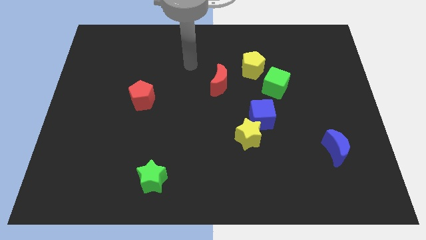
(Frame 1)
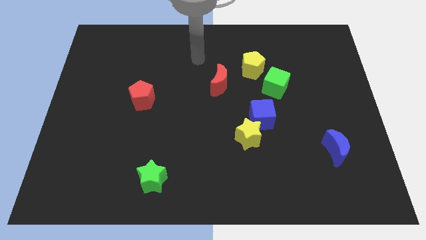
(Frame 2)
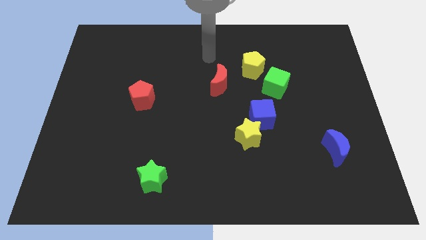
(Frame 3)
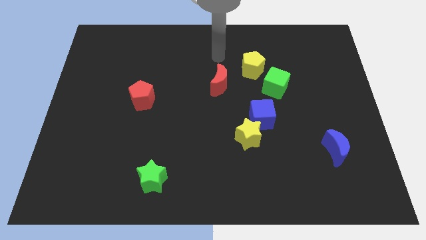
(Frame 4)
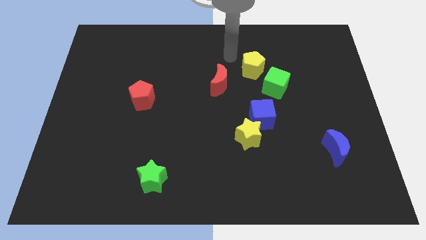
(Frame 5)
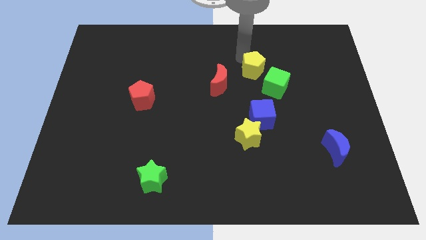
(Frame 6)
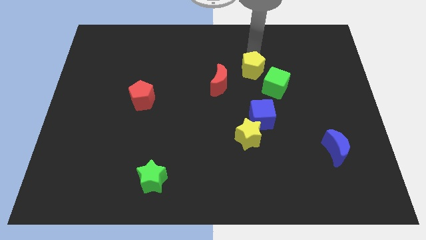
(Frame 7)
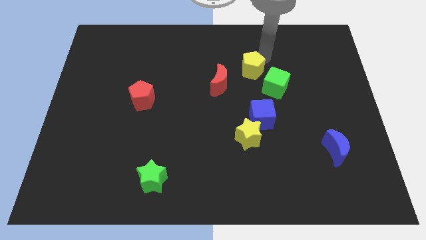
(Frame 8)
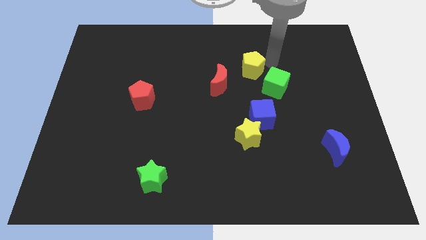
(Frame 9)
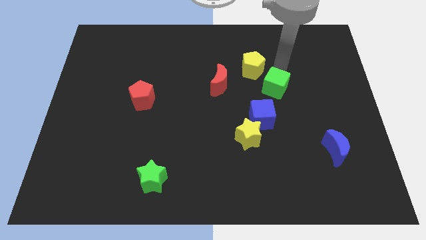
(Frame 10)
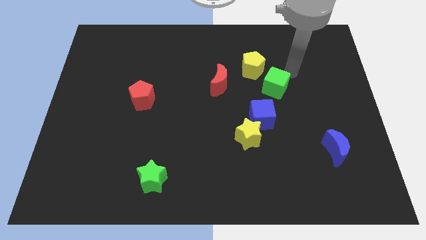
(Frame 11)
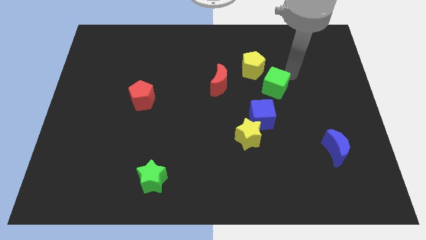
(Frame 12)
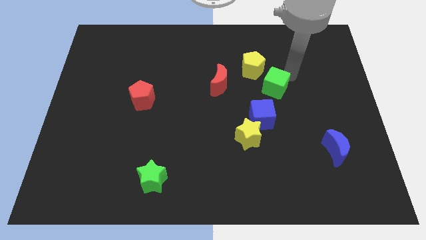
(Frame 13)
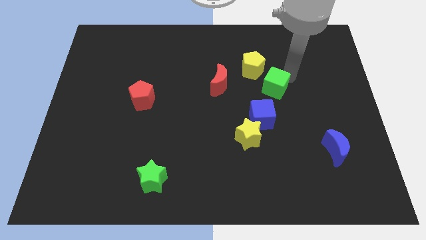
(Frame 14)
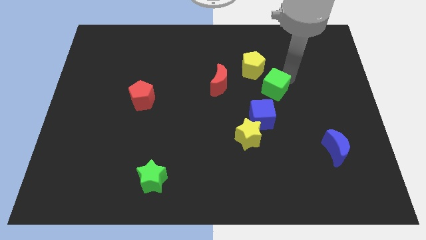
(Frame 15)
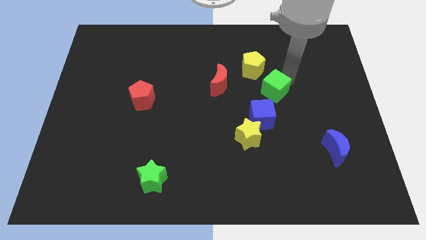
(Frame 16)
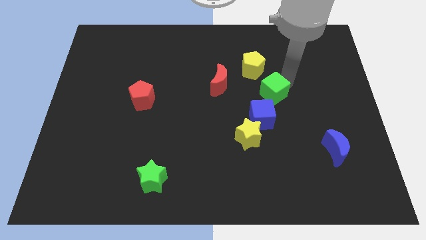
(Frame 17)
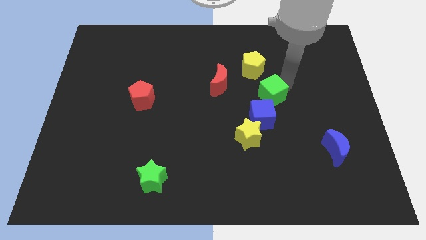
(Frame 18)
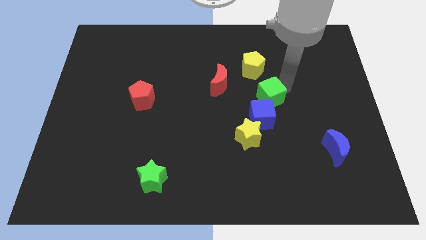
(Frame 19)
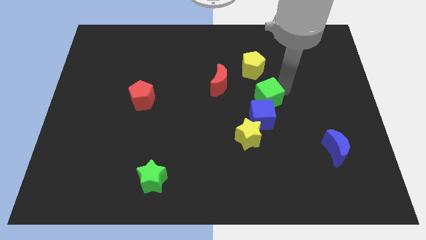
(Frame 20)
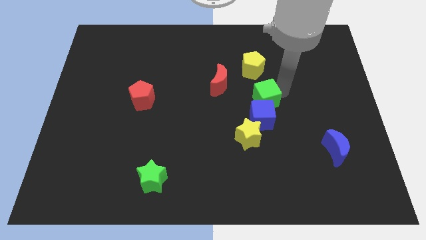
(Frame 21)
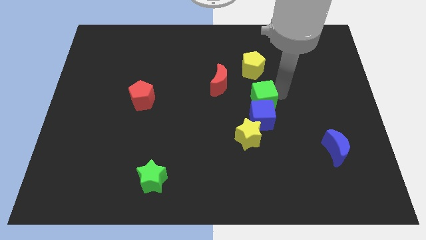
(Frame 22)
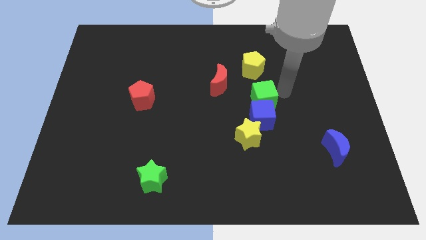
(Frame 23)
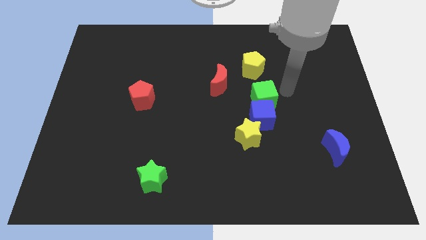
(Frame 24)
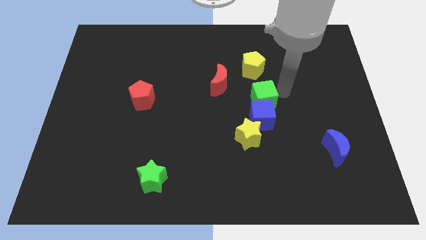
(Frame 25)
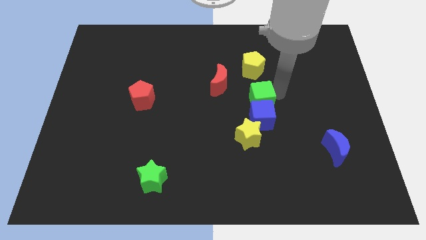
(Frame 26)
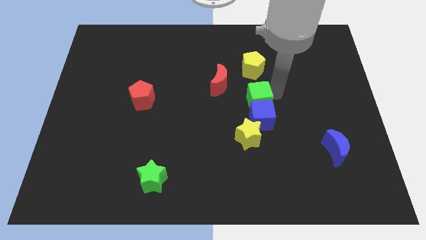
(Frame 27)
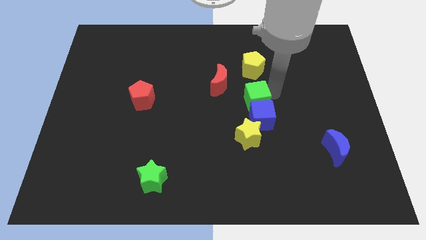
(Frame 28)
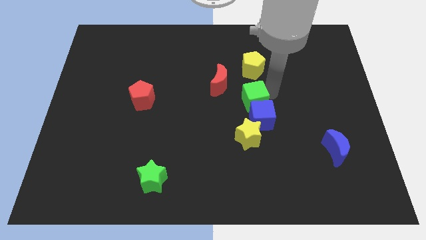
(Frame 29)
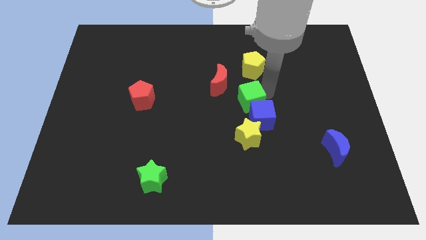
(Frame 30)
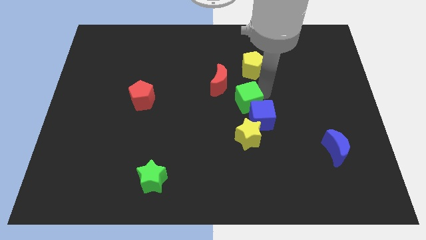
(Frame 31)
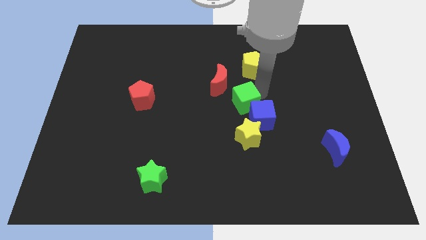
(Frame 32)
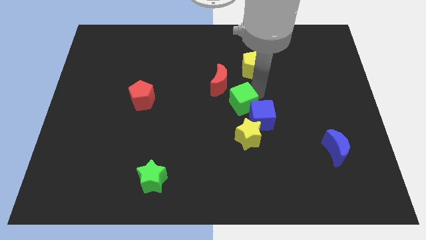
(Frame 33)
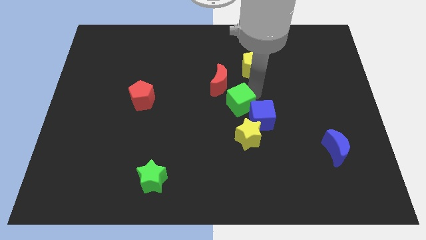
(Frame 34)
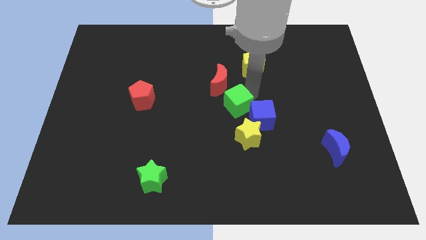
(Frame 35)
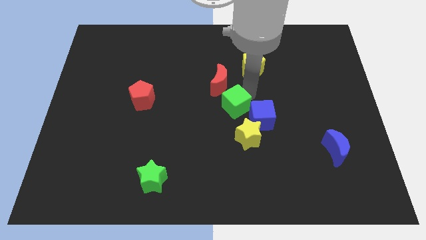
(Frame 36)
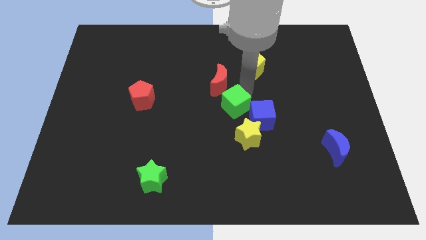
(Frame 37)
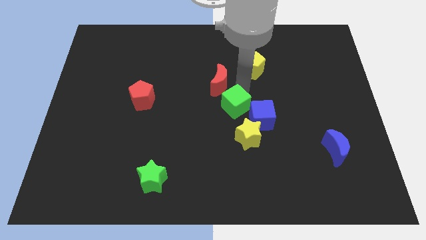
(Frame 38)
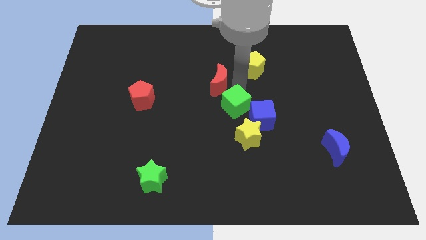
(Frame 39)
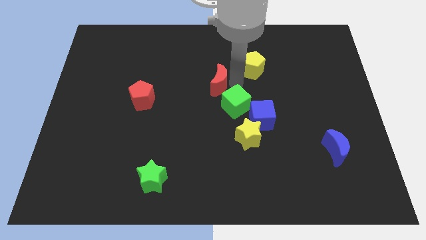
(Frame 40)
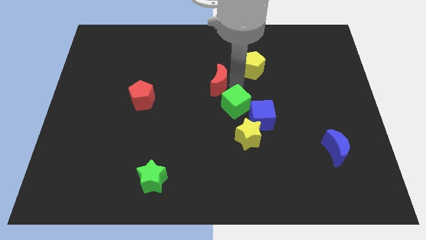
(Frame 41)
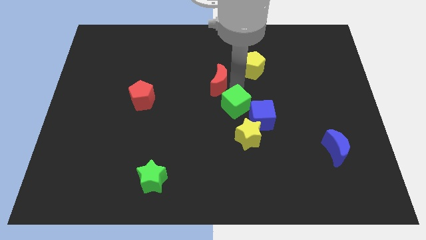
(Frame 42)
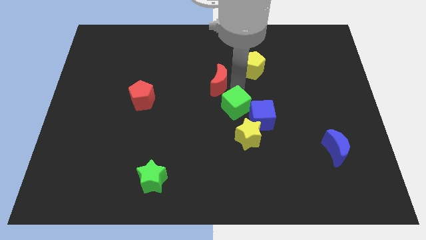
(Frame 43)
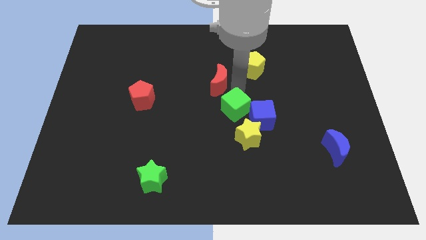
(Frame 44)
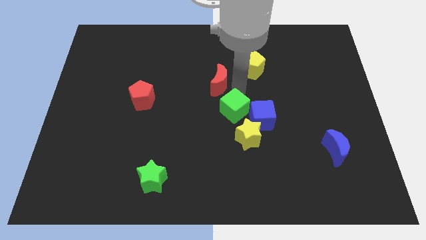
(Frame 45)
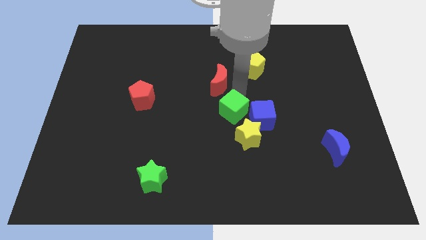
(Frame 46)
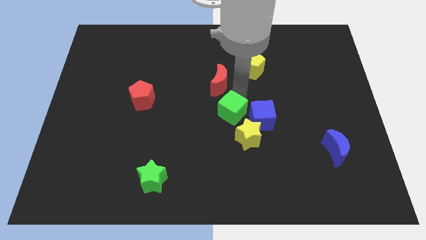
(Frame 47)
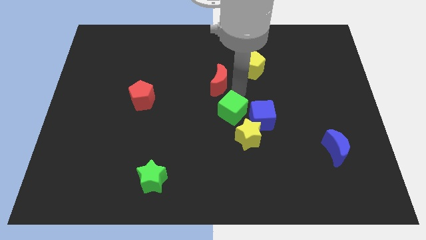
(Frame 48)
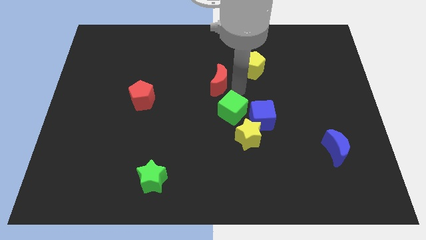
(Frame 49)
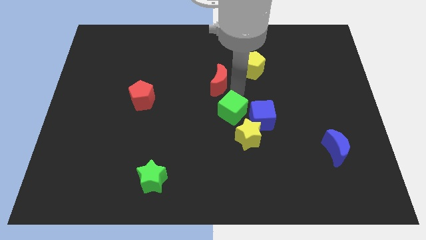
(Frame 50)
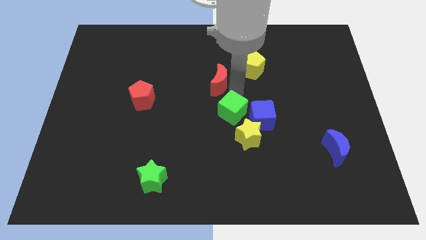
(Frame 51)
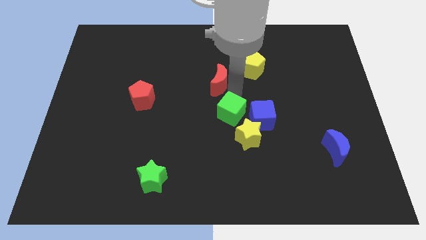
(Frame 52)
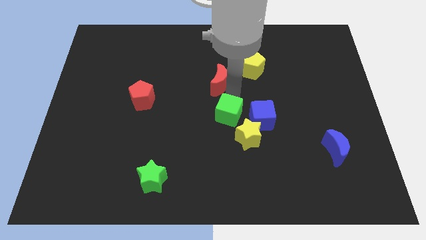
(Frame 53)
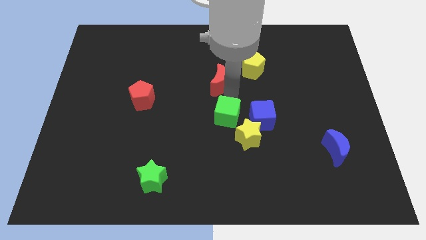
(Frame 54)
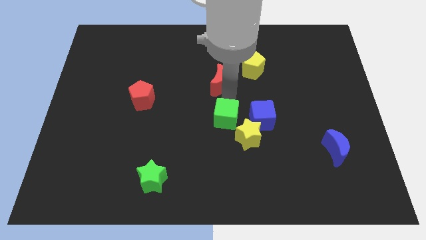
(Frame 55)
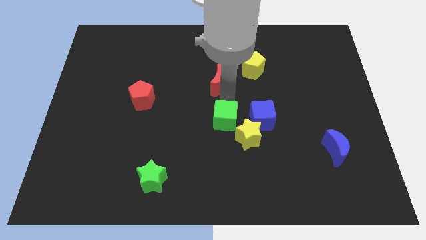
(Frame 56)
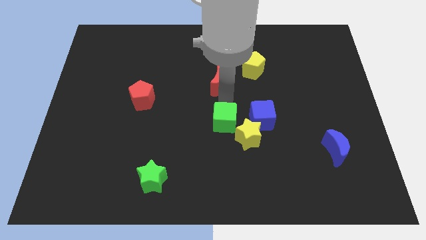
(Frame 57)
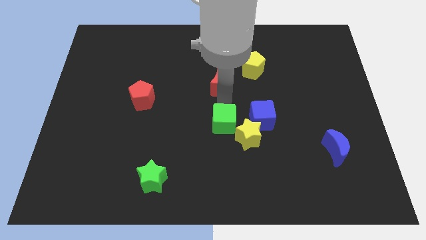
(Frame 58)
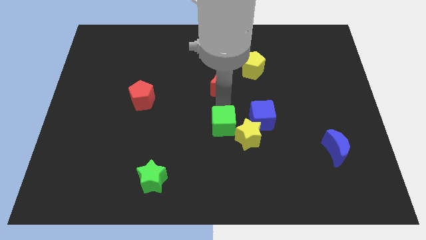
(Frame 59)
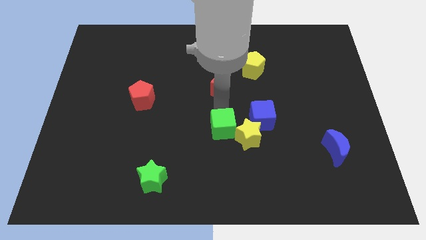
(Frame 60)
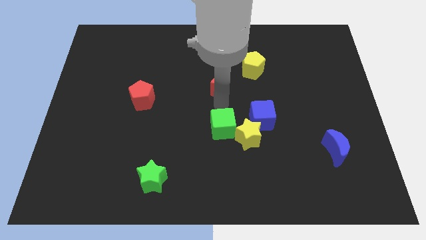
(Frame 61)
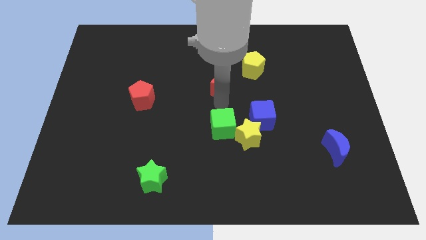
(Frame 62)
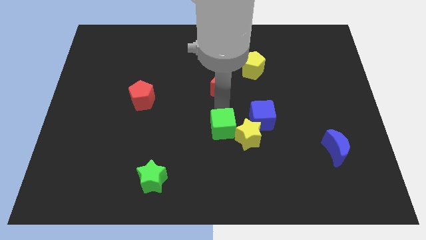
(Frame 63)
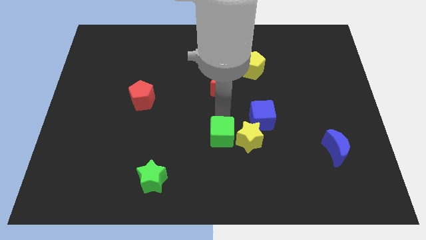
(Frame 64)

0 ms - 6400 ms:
put the green cube to the bottom left of the yellow star

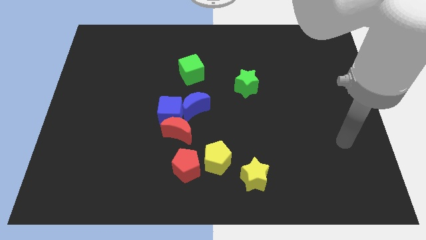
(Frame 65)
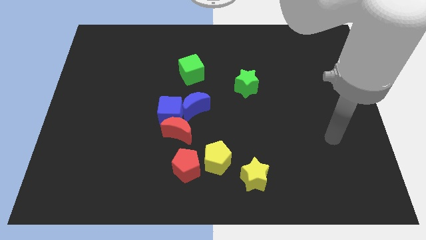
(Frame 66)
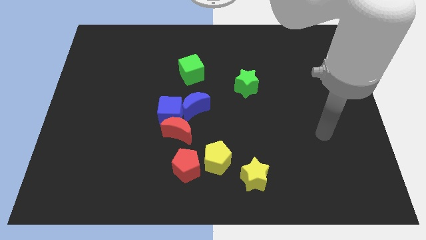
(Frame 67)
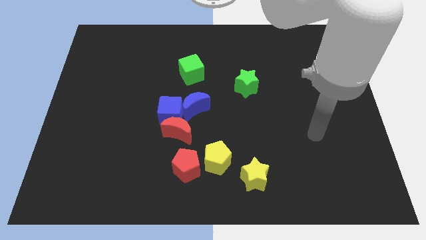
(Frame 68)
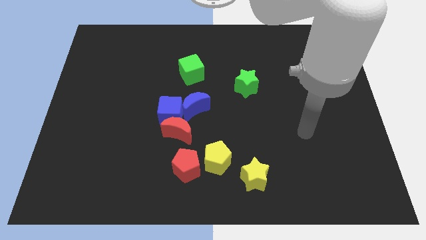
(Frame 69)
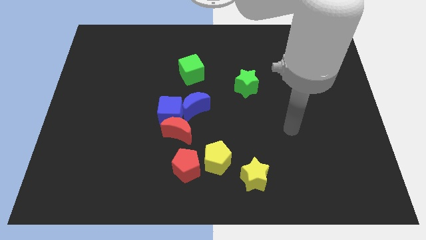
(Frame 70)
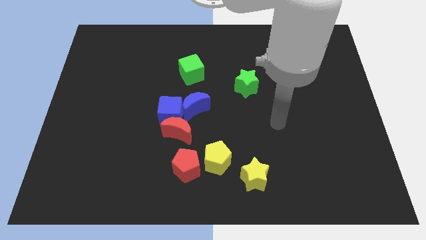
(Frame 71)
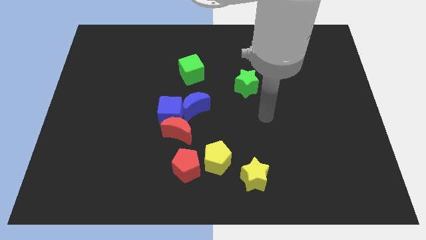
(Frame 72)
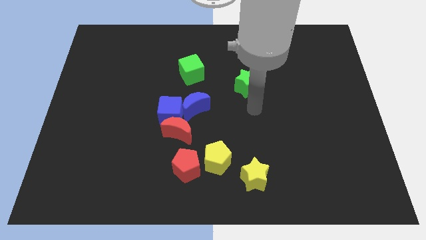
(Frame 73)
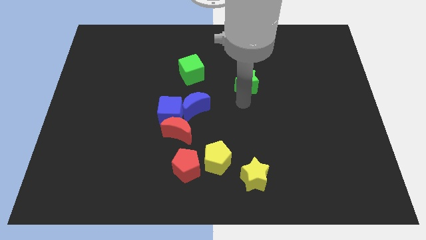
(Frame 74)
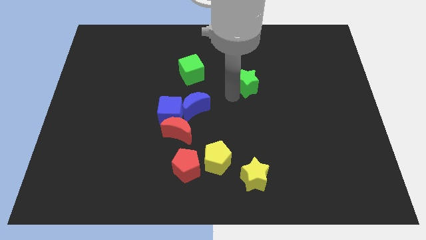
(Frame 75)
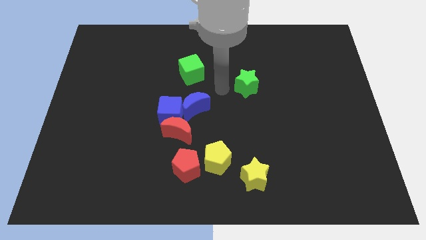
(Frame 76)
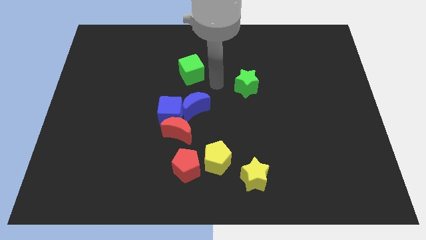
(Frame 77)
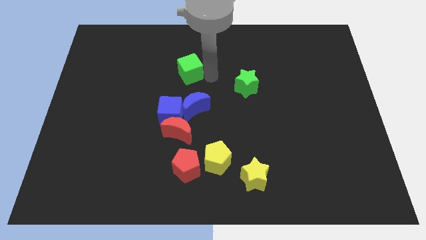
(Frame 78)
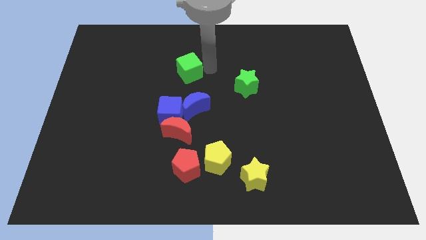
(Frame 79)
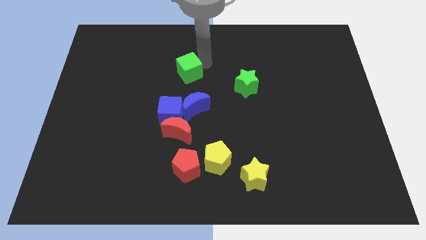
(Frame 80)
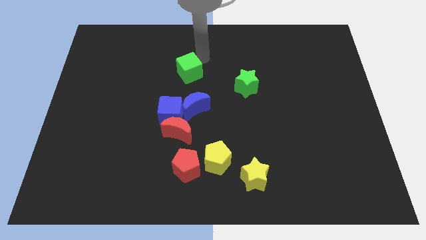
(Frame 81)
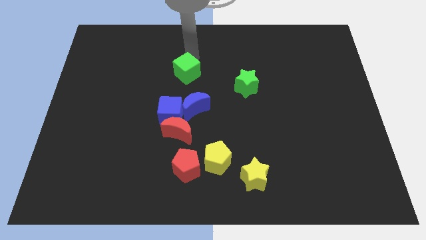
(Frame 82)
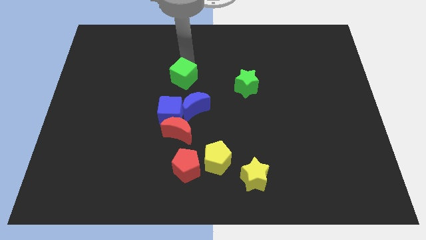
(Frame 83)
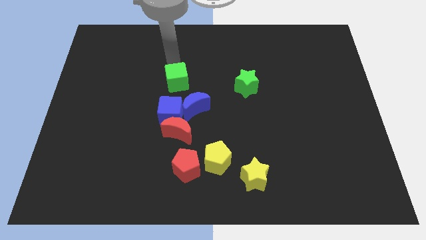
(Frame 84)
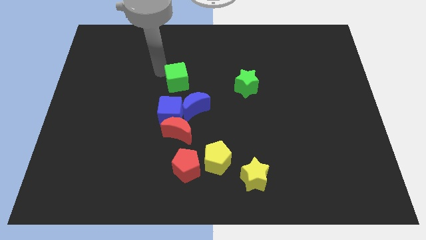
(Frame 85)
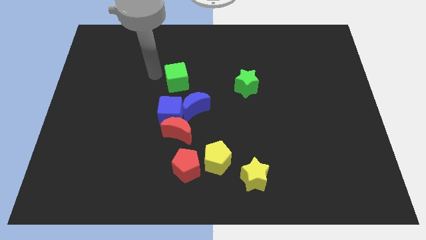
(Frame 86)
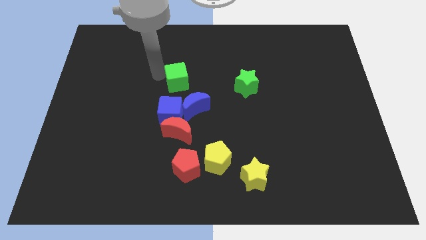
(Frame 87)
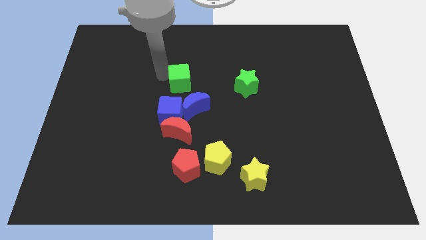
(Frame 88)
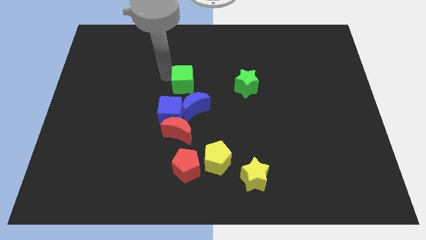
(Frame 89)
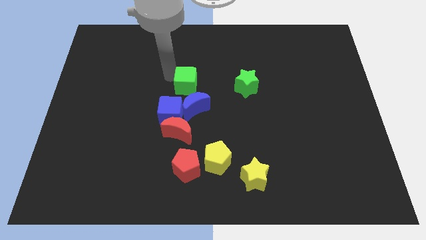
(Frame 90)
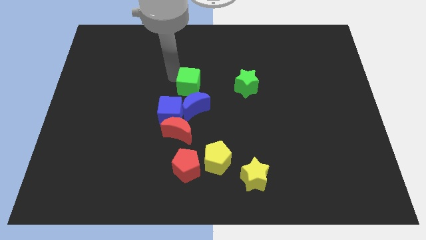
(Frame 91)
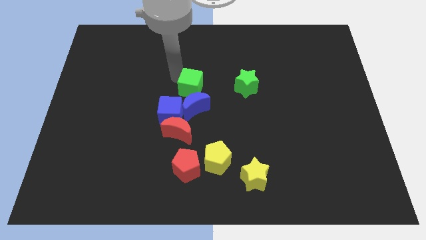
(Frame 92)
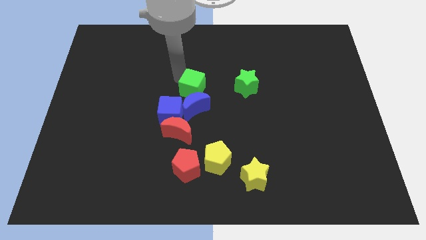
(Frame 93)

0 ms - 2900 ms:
push the green cube to the top right of the blue moon
